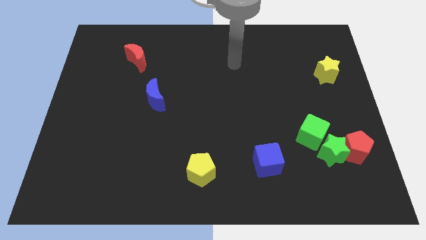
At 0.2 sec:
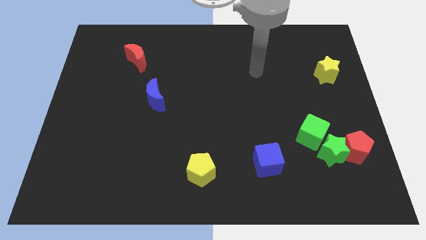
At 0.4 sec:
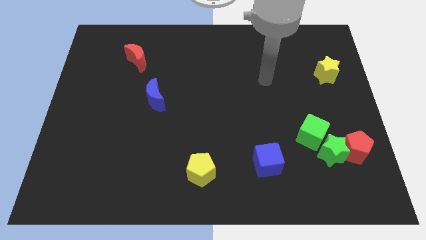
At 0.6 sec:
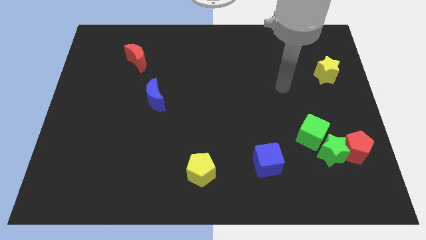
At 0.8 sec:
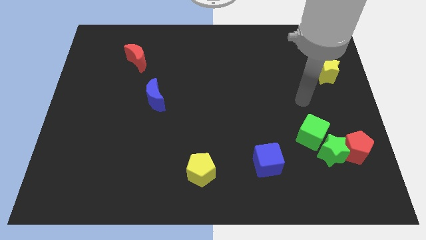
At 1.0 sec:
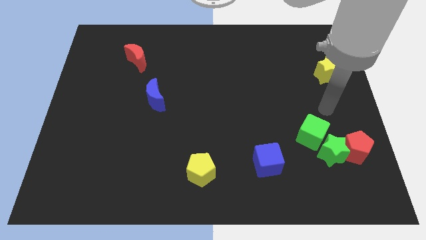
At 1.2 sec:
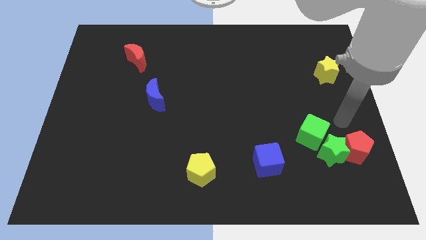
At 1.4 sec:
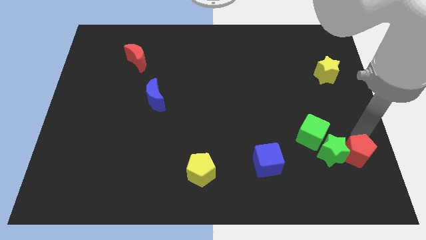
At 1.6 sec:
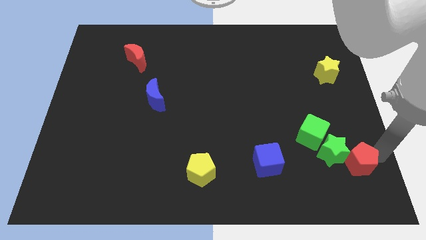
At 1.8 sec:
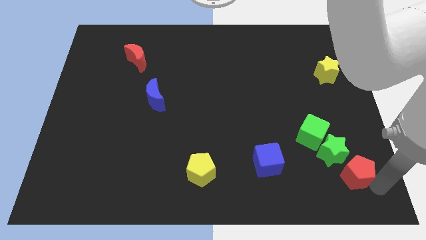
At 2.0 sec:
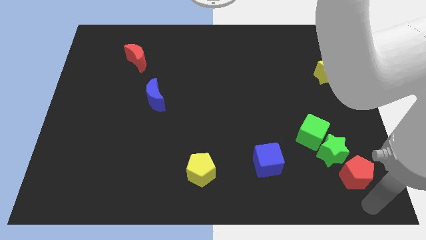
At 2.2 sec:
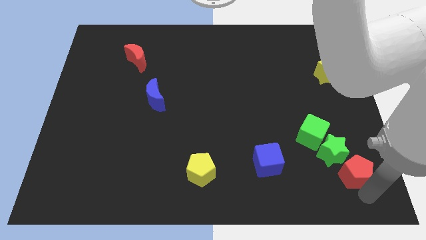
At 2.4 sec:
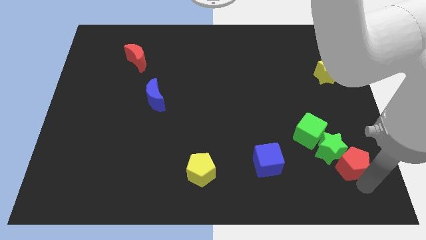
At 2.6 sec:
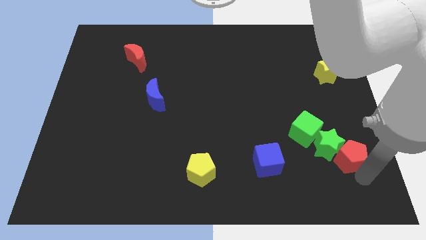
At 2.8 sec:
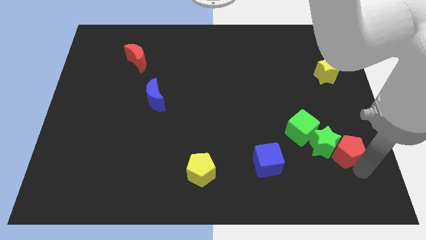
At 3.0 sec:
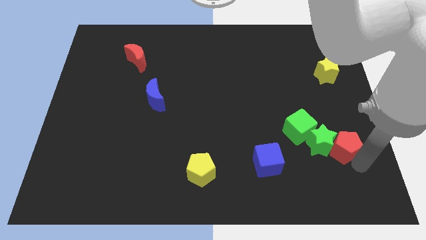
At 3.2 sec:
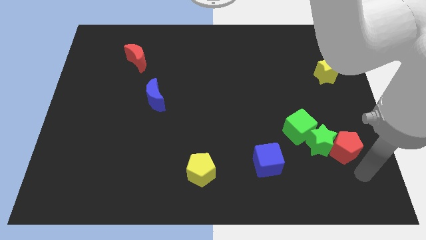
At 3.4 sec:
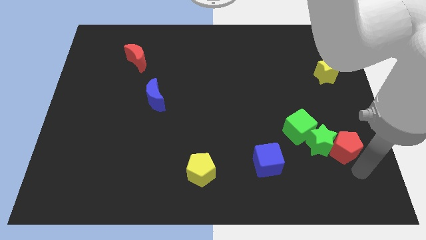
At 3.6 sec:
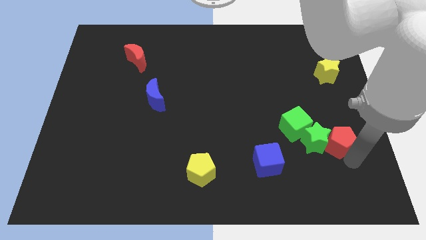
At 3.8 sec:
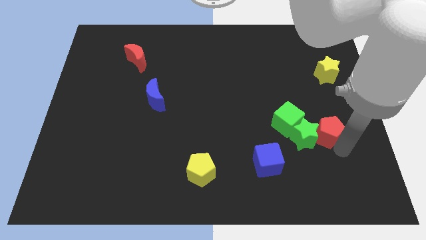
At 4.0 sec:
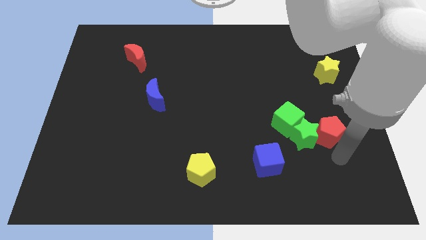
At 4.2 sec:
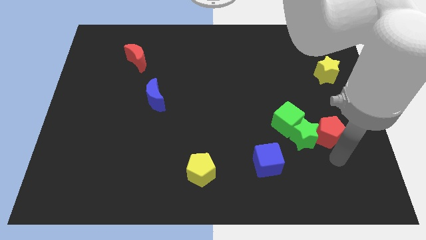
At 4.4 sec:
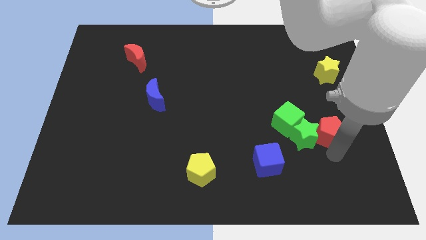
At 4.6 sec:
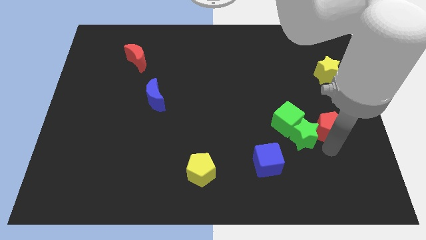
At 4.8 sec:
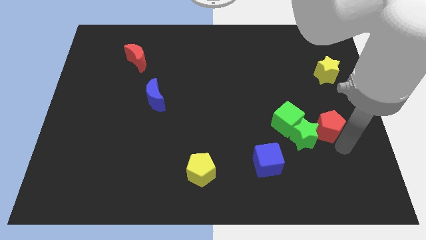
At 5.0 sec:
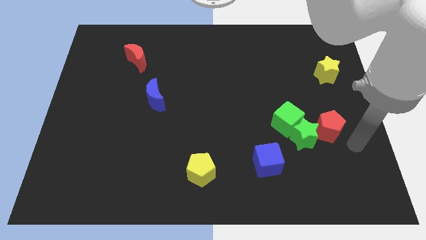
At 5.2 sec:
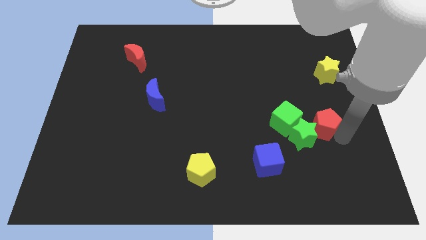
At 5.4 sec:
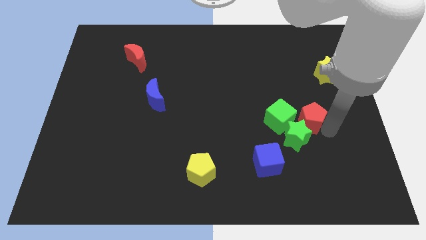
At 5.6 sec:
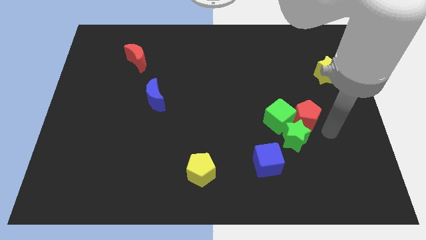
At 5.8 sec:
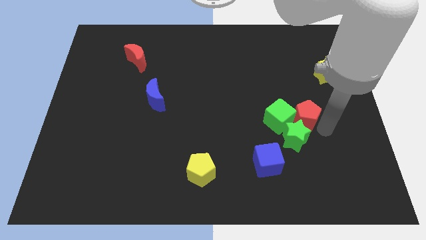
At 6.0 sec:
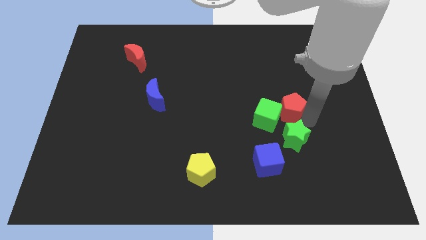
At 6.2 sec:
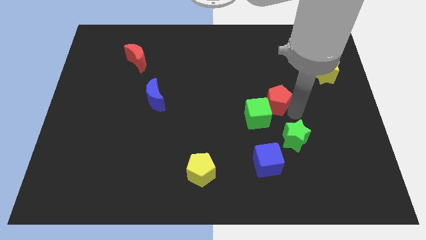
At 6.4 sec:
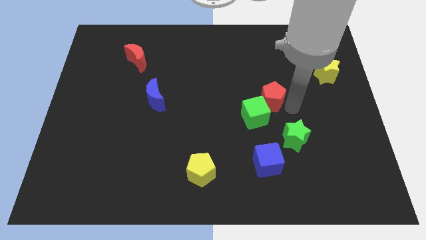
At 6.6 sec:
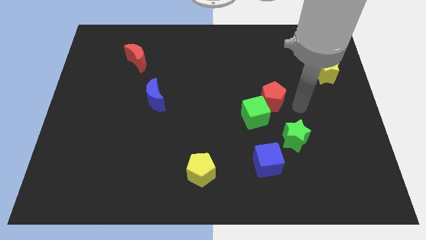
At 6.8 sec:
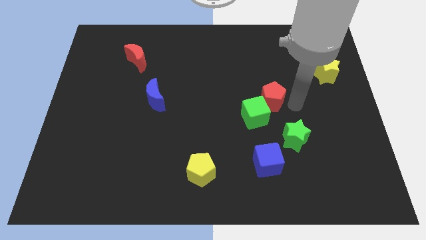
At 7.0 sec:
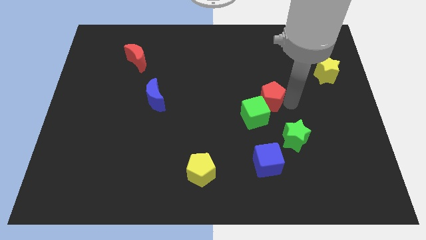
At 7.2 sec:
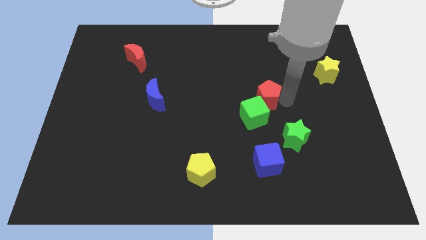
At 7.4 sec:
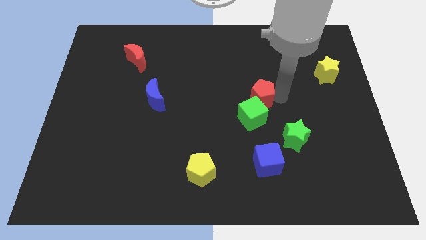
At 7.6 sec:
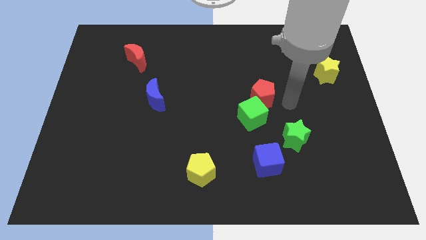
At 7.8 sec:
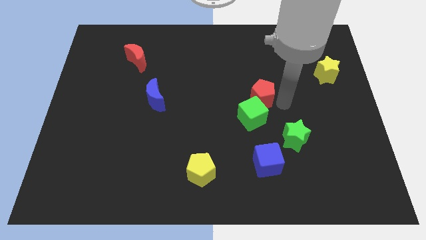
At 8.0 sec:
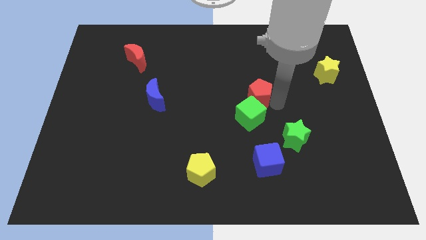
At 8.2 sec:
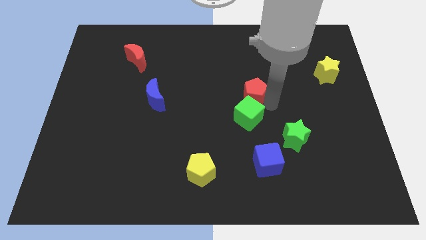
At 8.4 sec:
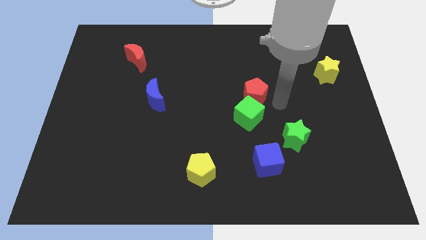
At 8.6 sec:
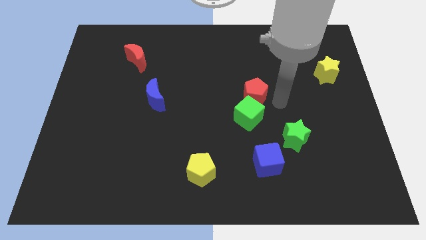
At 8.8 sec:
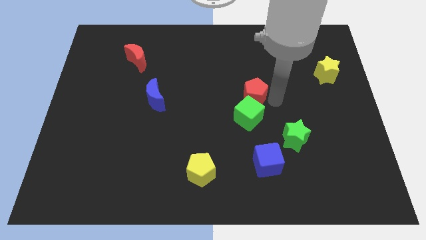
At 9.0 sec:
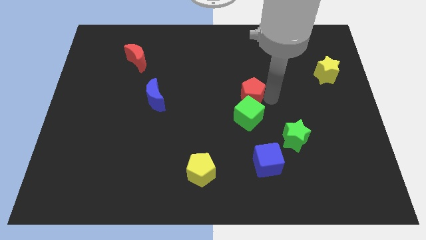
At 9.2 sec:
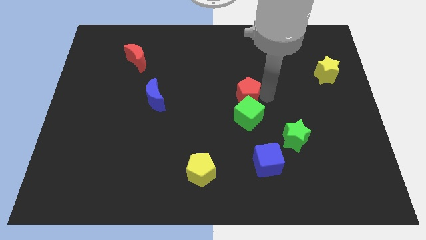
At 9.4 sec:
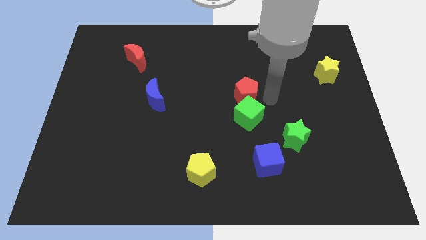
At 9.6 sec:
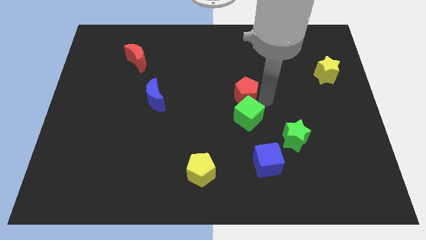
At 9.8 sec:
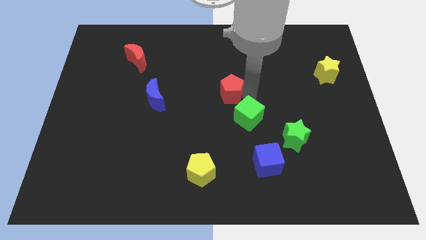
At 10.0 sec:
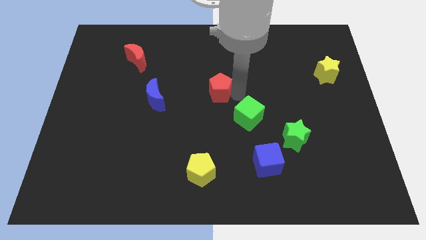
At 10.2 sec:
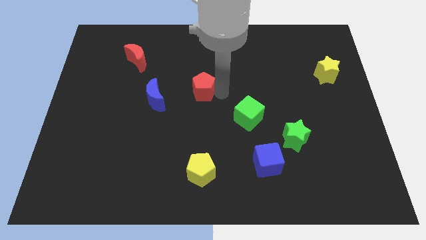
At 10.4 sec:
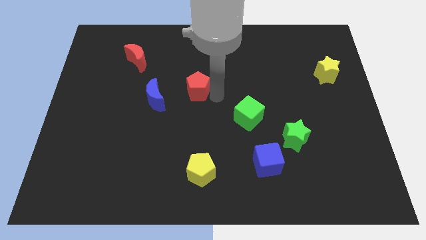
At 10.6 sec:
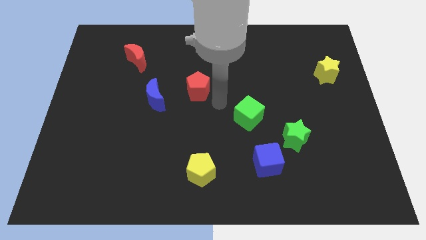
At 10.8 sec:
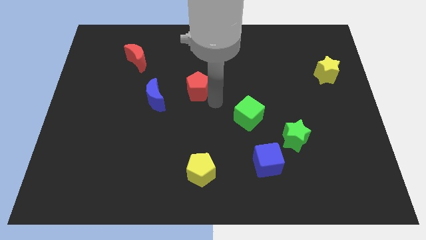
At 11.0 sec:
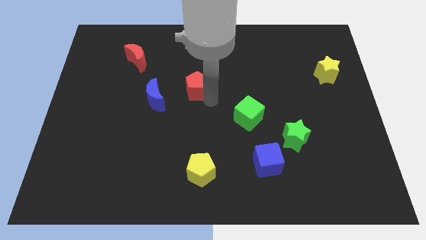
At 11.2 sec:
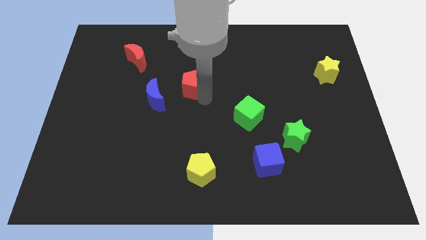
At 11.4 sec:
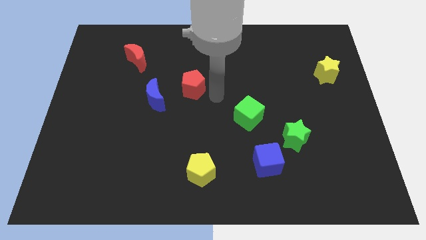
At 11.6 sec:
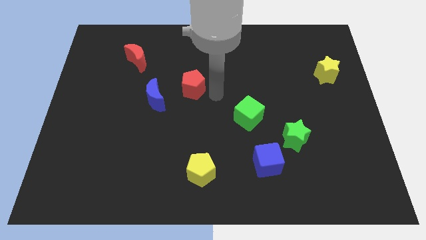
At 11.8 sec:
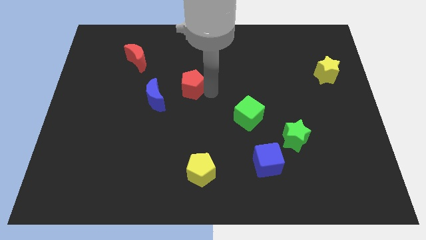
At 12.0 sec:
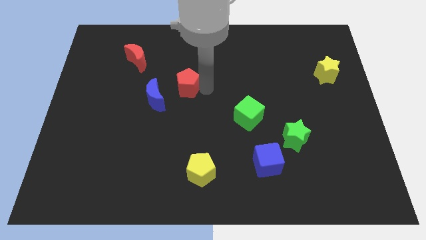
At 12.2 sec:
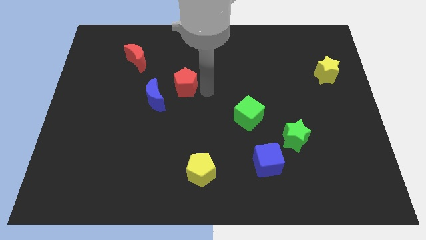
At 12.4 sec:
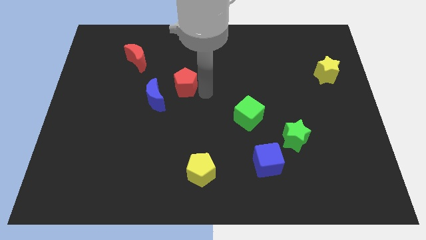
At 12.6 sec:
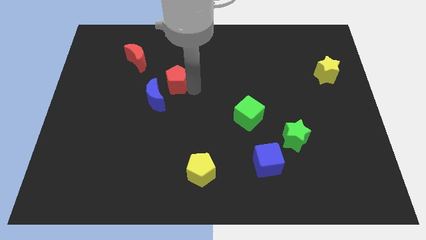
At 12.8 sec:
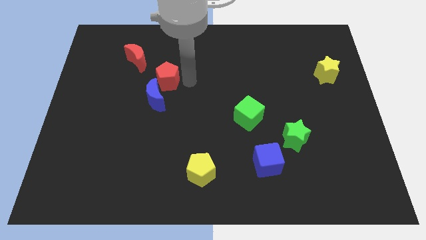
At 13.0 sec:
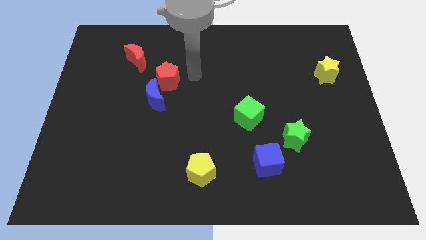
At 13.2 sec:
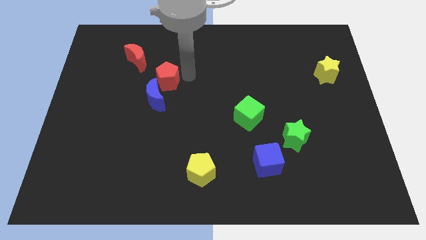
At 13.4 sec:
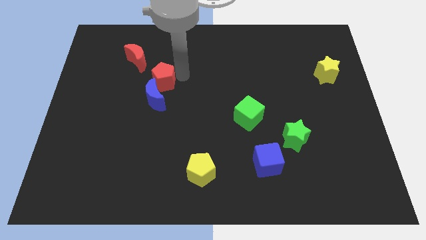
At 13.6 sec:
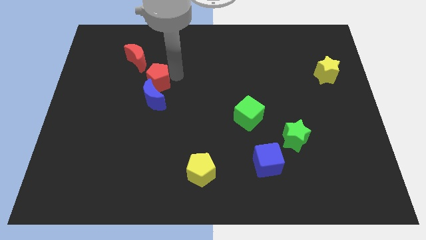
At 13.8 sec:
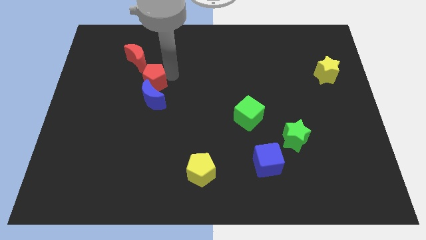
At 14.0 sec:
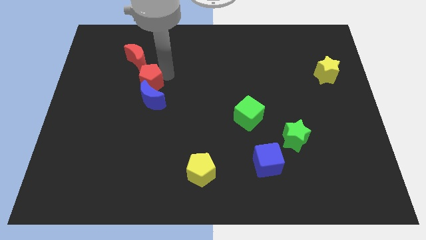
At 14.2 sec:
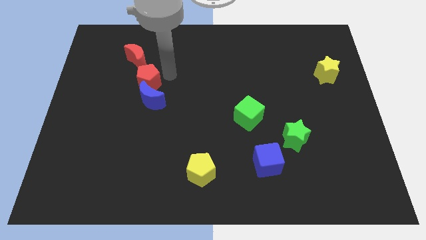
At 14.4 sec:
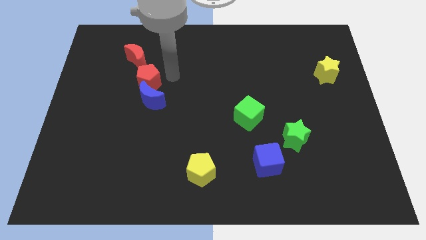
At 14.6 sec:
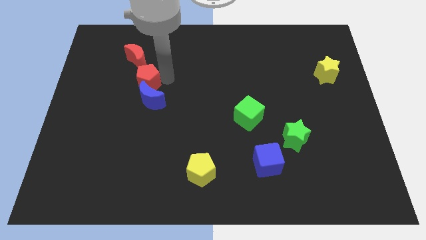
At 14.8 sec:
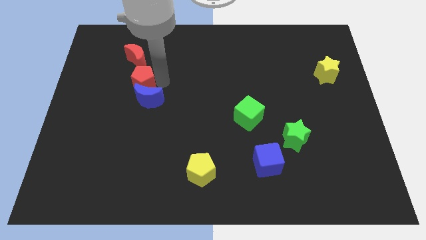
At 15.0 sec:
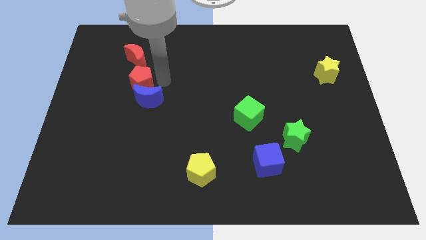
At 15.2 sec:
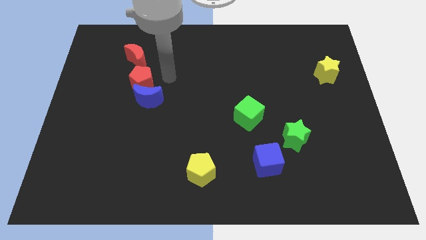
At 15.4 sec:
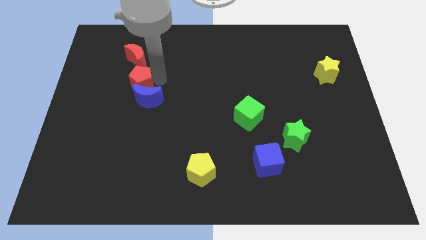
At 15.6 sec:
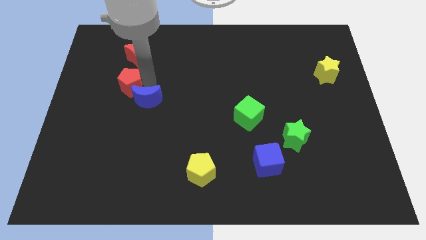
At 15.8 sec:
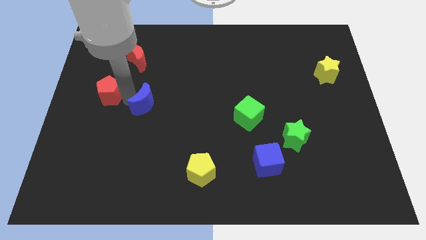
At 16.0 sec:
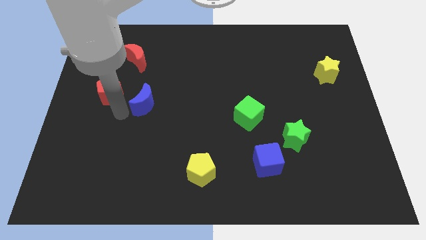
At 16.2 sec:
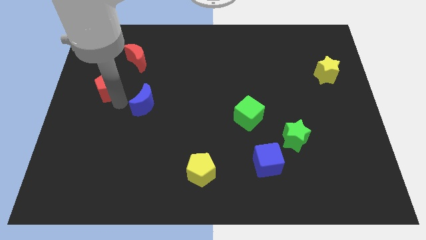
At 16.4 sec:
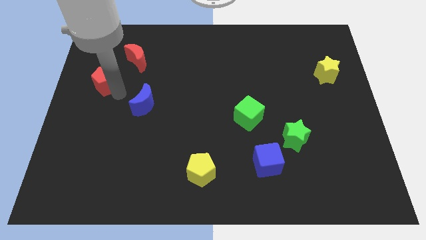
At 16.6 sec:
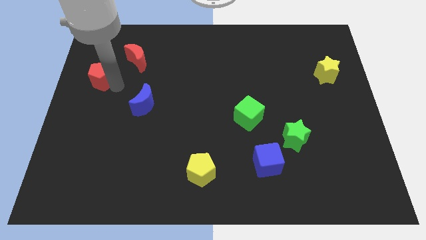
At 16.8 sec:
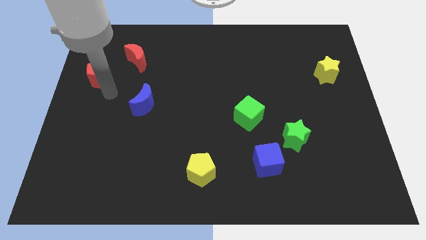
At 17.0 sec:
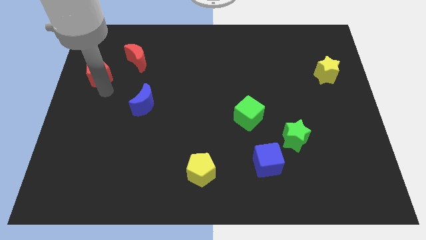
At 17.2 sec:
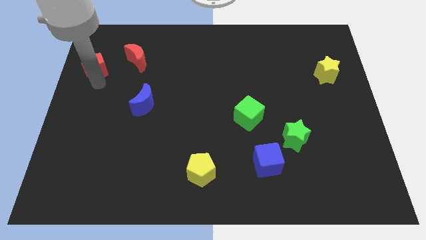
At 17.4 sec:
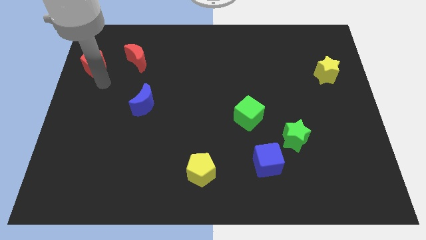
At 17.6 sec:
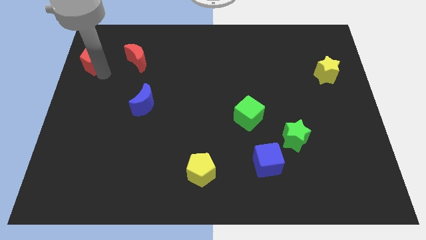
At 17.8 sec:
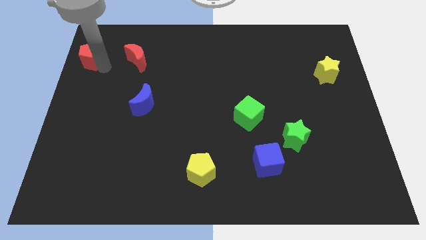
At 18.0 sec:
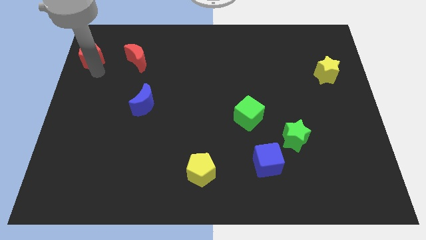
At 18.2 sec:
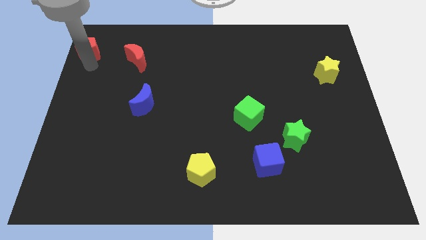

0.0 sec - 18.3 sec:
push the red pentagon to the upper left corner
